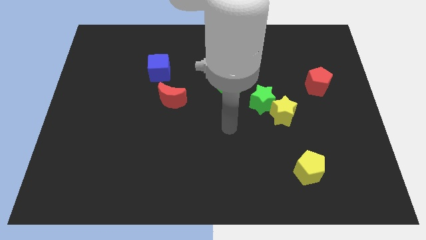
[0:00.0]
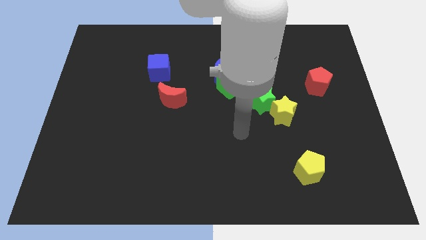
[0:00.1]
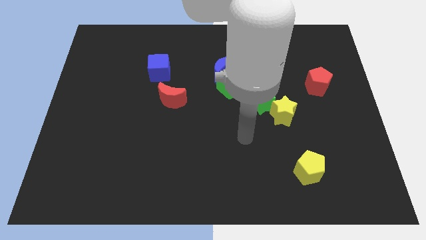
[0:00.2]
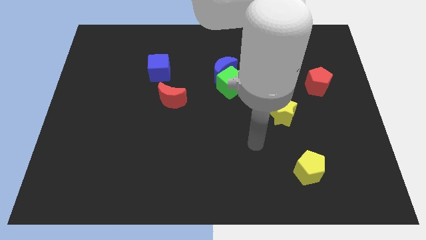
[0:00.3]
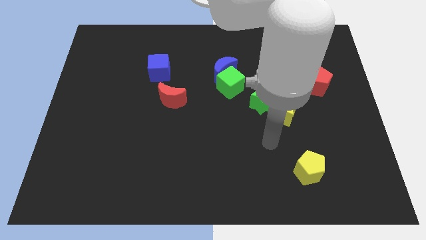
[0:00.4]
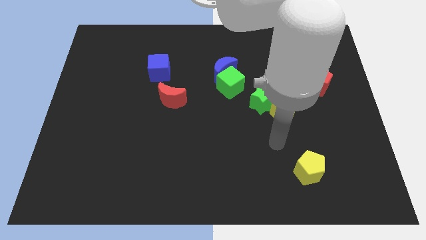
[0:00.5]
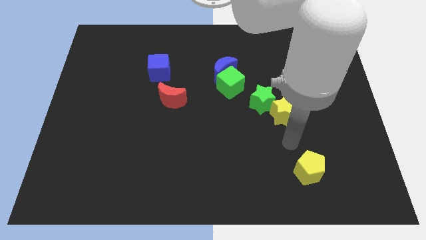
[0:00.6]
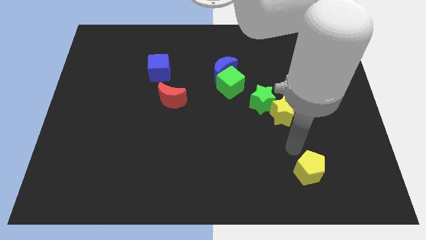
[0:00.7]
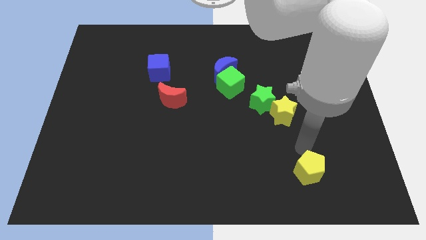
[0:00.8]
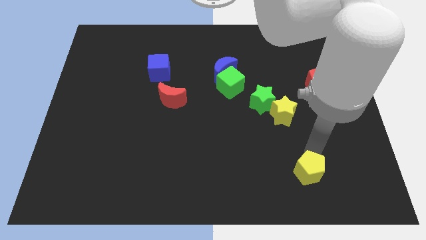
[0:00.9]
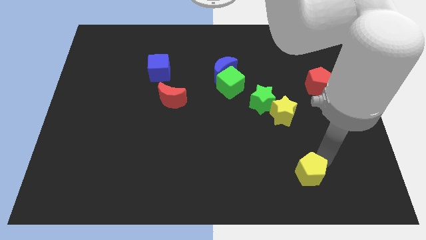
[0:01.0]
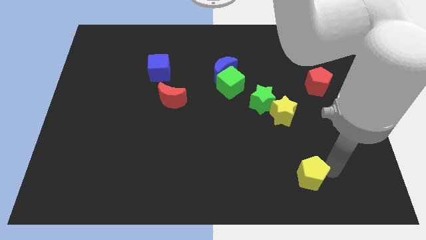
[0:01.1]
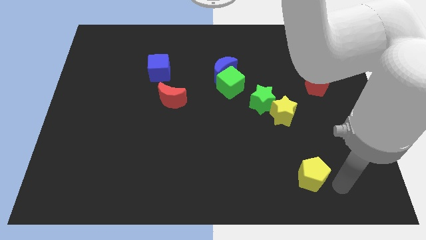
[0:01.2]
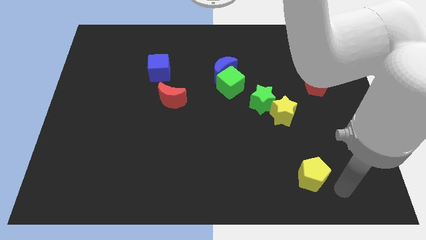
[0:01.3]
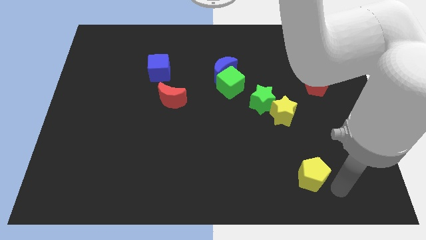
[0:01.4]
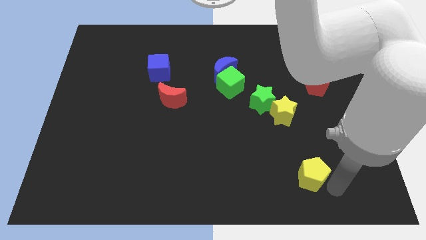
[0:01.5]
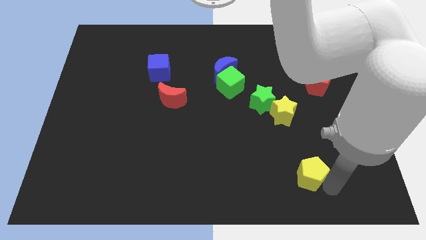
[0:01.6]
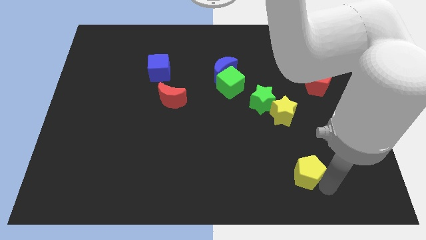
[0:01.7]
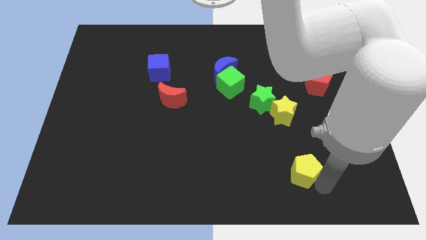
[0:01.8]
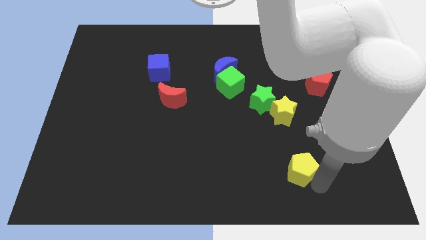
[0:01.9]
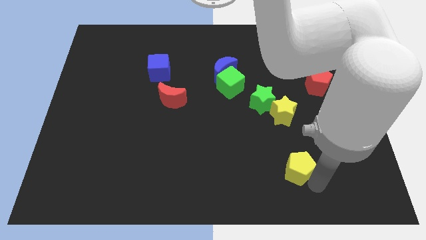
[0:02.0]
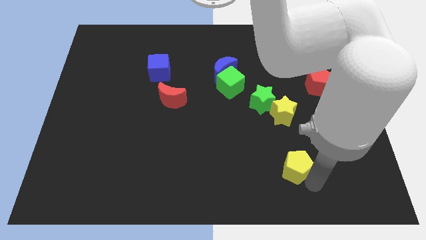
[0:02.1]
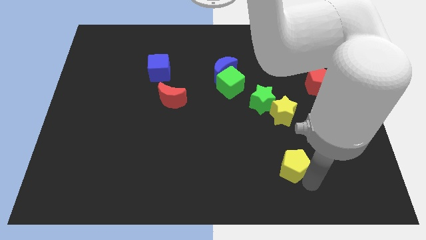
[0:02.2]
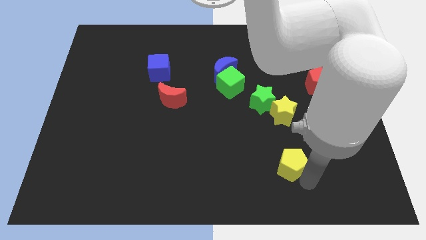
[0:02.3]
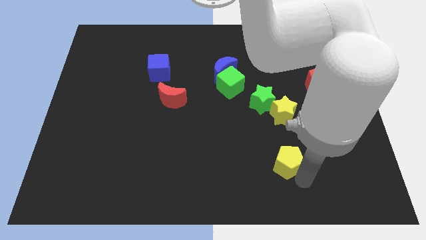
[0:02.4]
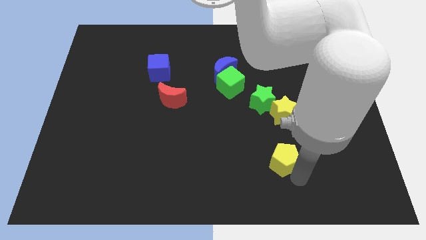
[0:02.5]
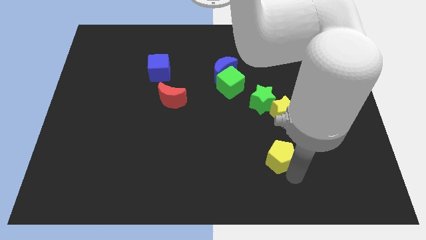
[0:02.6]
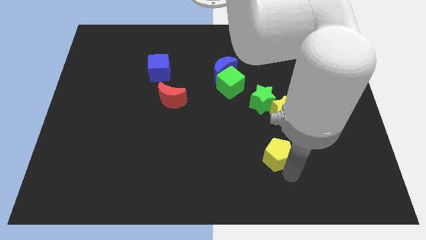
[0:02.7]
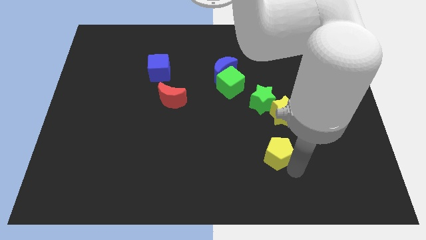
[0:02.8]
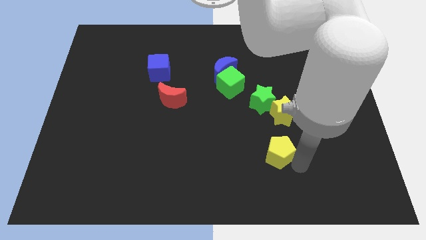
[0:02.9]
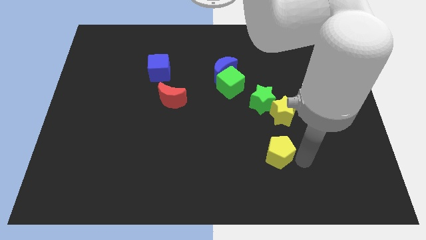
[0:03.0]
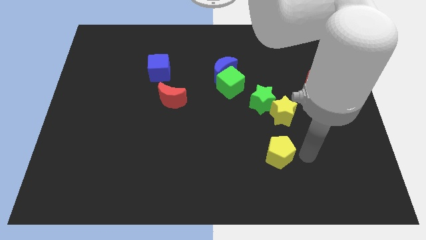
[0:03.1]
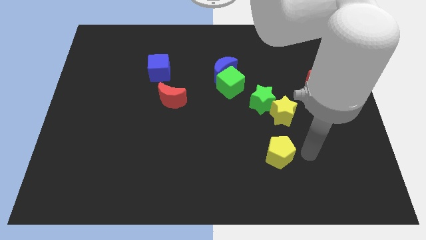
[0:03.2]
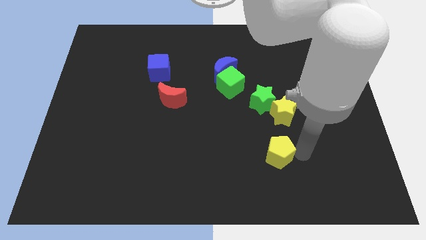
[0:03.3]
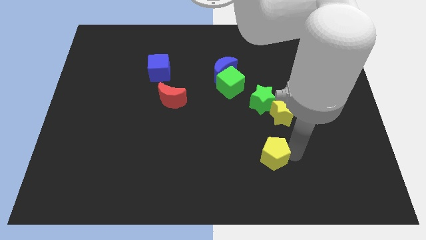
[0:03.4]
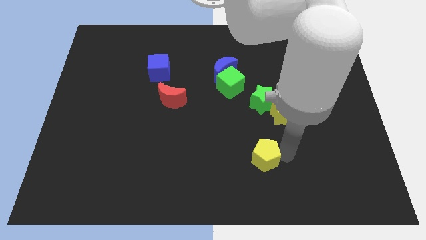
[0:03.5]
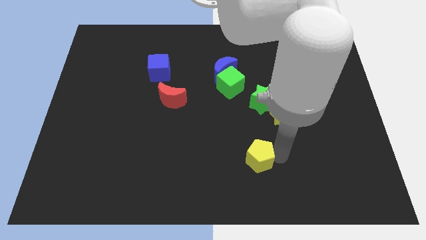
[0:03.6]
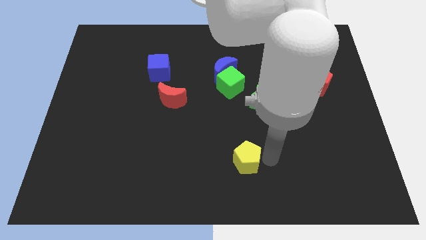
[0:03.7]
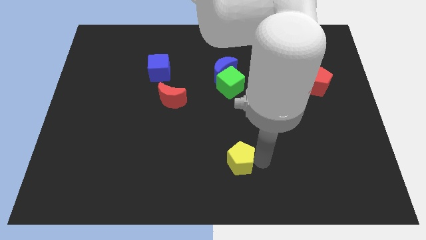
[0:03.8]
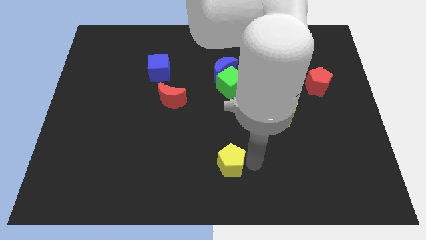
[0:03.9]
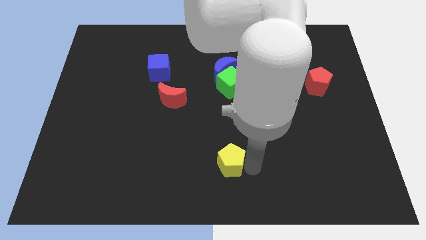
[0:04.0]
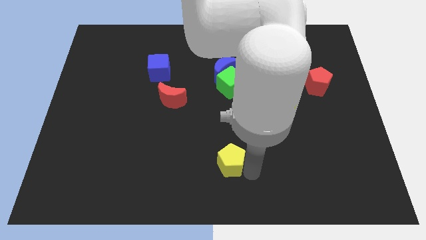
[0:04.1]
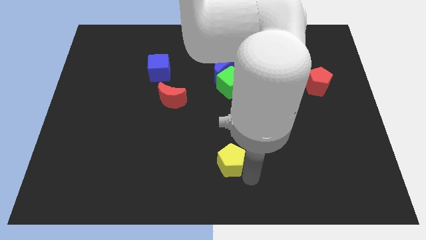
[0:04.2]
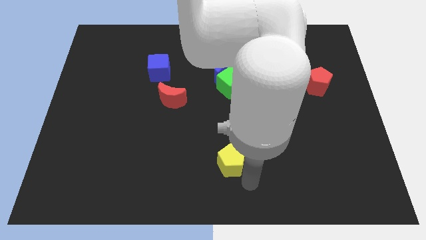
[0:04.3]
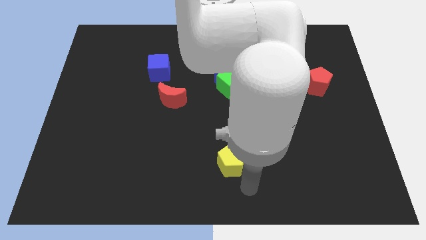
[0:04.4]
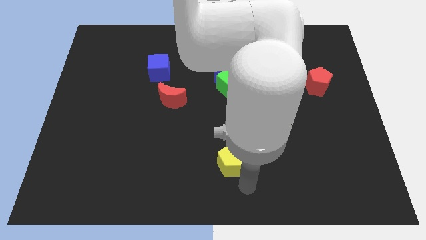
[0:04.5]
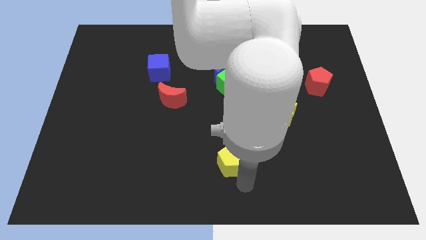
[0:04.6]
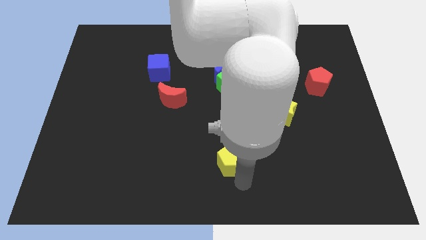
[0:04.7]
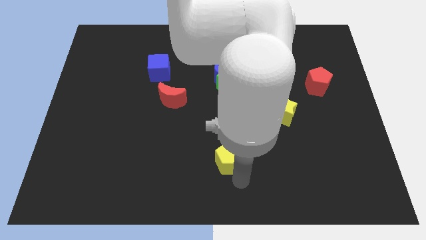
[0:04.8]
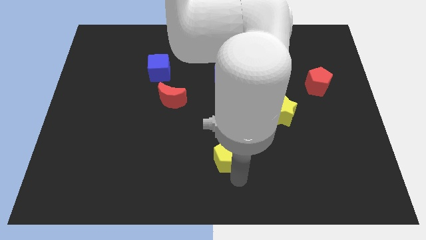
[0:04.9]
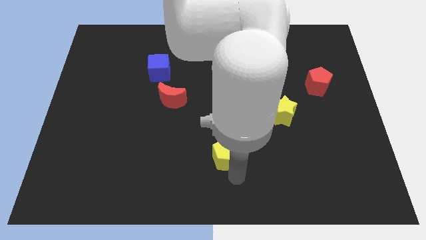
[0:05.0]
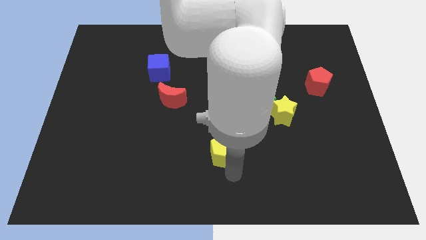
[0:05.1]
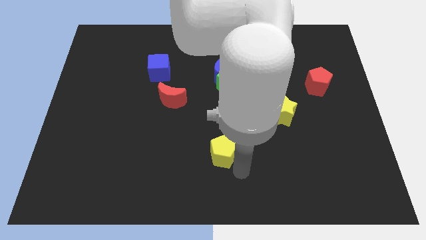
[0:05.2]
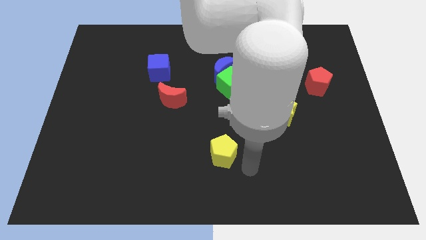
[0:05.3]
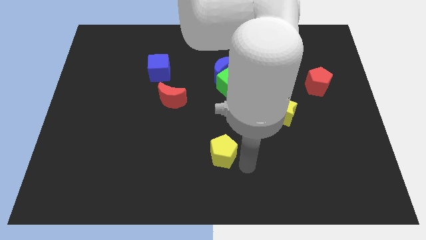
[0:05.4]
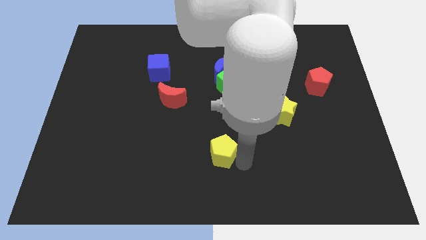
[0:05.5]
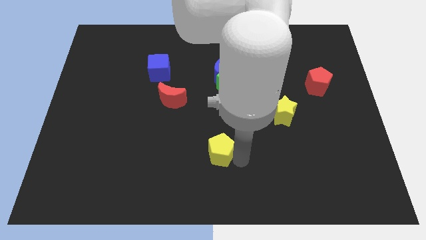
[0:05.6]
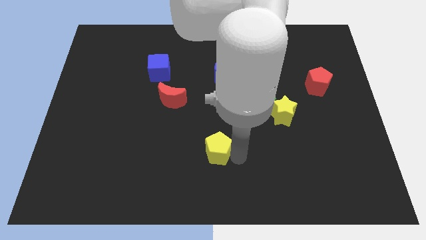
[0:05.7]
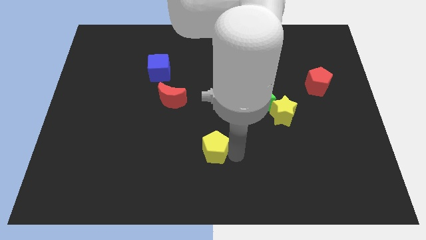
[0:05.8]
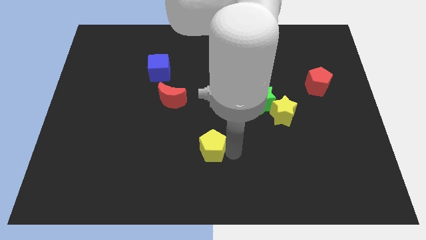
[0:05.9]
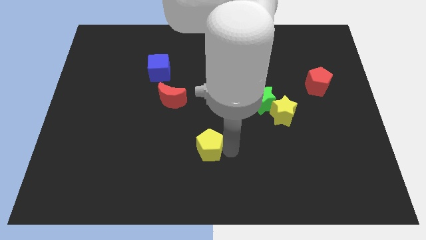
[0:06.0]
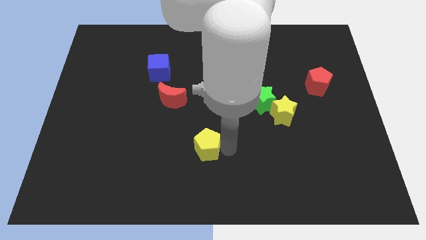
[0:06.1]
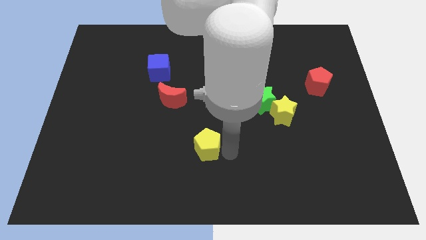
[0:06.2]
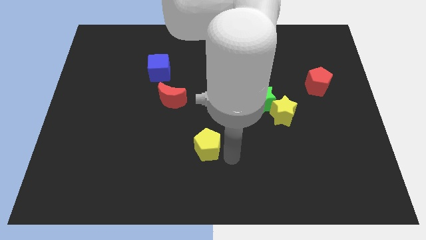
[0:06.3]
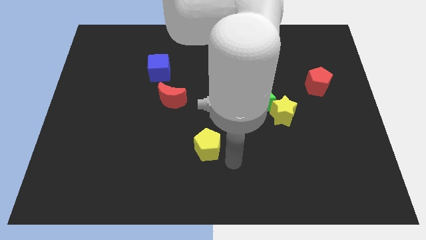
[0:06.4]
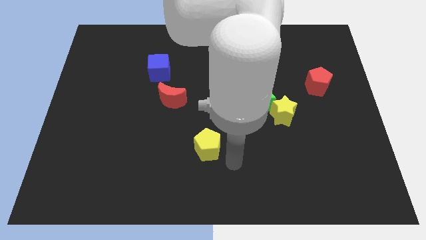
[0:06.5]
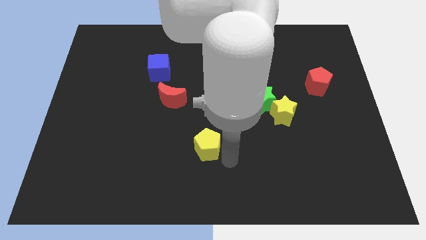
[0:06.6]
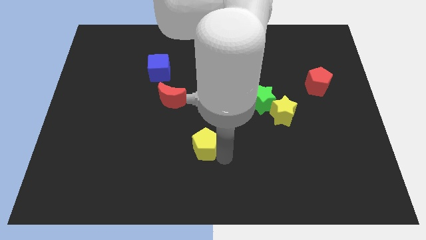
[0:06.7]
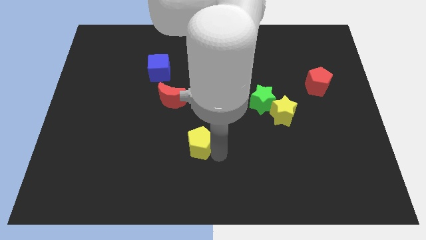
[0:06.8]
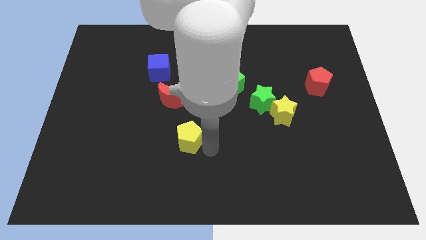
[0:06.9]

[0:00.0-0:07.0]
put the yellow pentagon to the bottom of the red moon

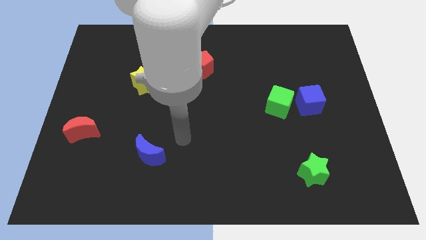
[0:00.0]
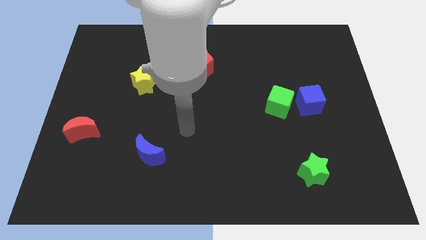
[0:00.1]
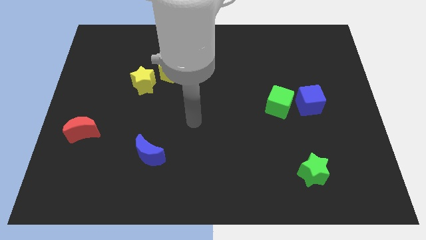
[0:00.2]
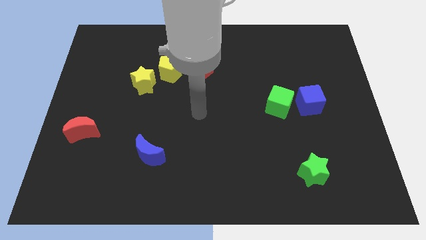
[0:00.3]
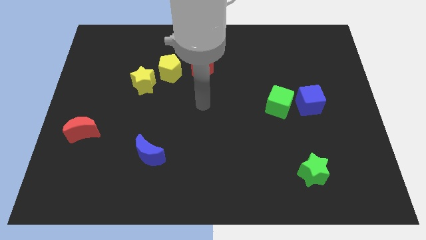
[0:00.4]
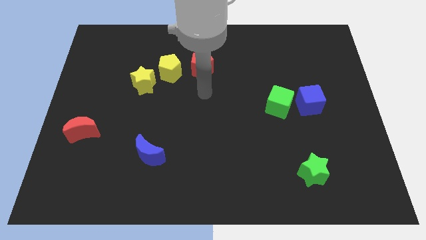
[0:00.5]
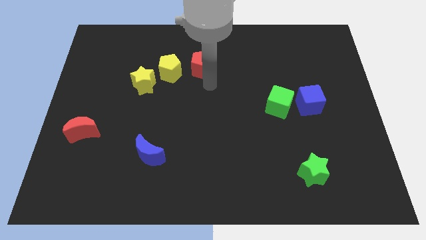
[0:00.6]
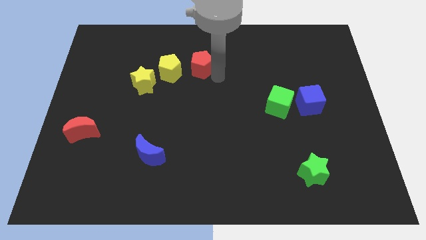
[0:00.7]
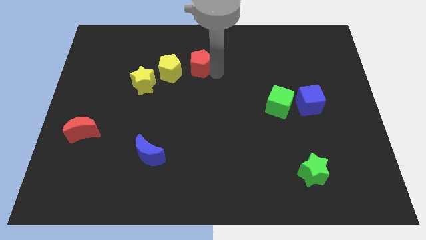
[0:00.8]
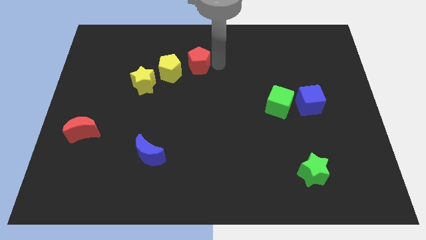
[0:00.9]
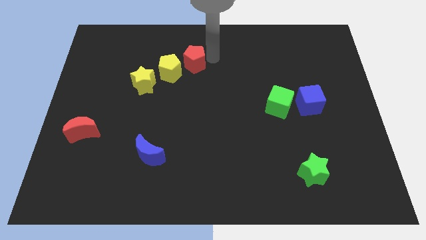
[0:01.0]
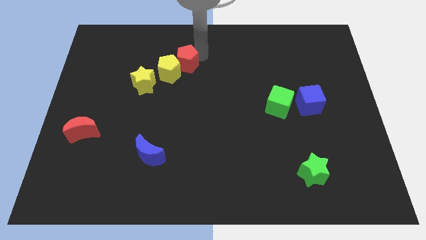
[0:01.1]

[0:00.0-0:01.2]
push the yellow pentagon to the bottom of the red pentagon
